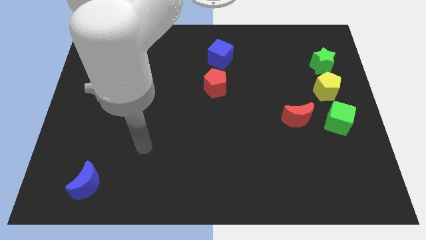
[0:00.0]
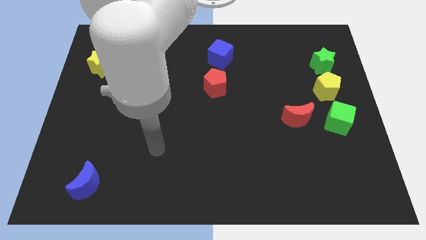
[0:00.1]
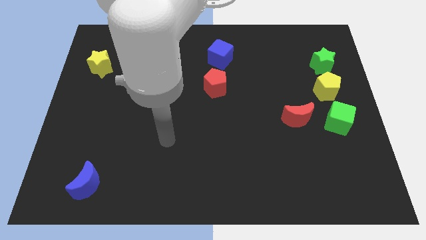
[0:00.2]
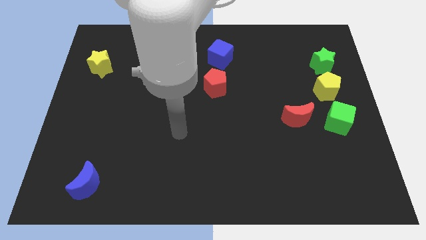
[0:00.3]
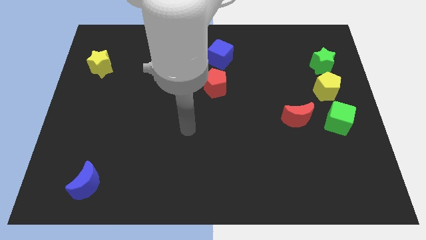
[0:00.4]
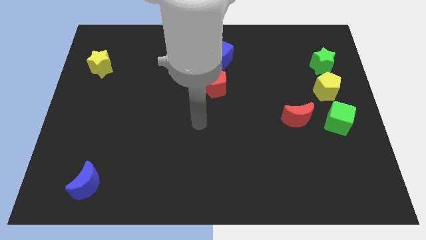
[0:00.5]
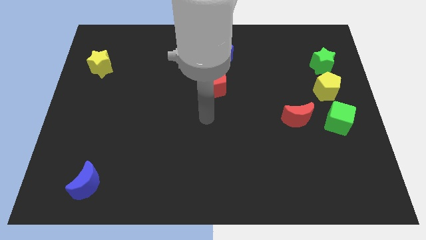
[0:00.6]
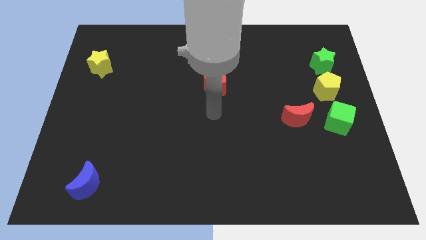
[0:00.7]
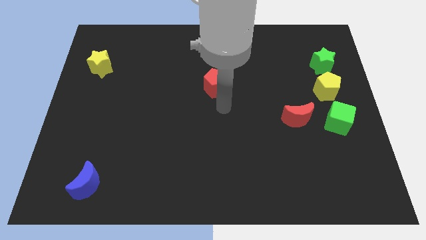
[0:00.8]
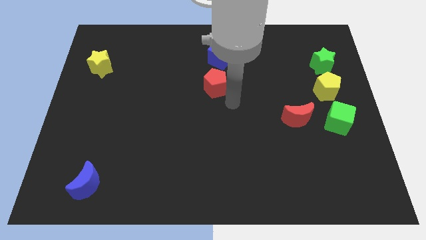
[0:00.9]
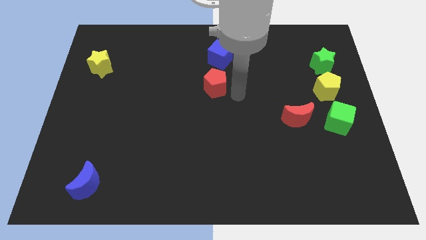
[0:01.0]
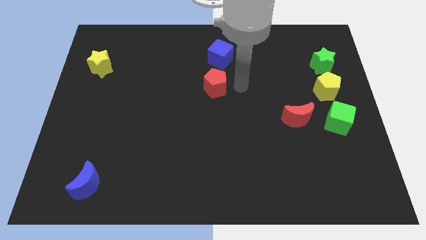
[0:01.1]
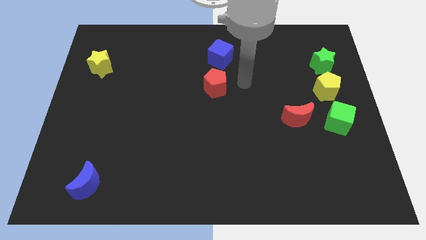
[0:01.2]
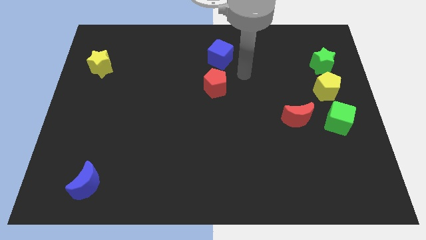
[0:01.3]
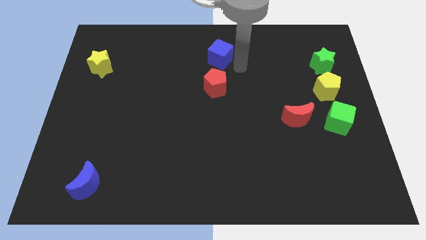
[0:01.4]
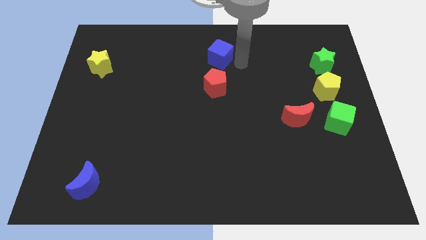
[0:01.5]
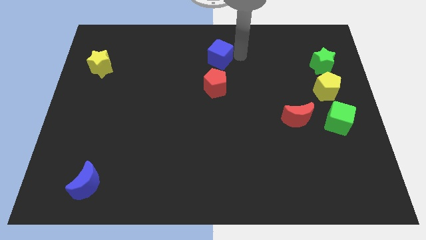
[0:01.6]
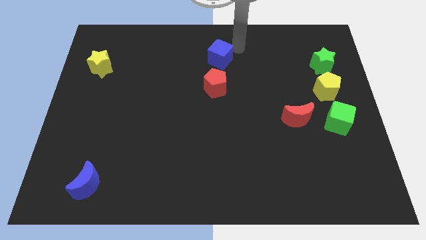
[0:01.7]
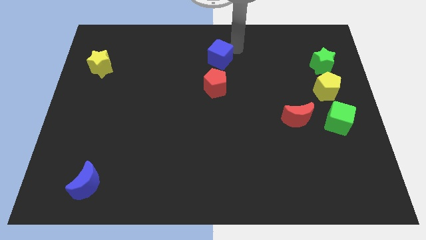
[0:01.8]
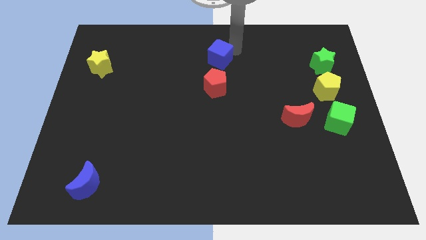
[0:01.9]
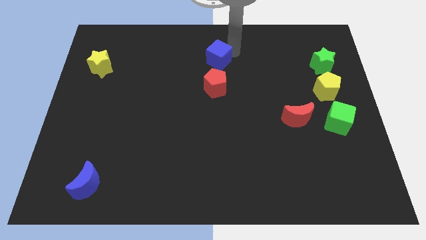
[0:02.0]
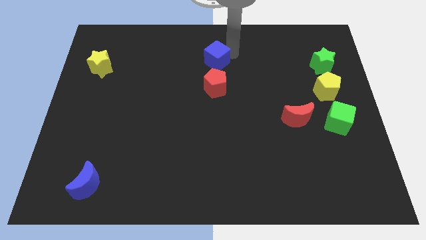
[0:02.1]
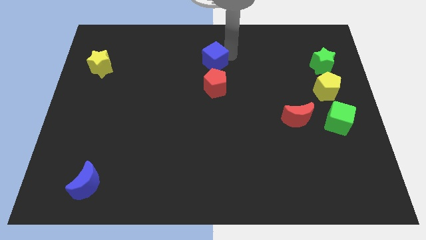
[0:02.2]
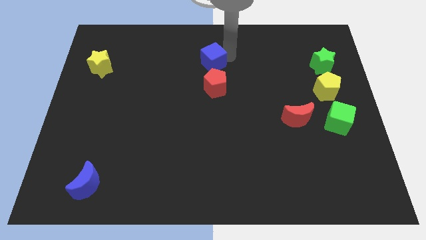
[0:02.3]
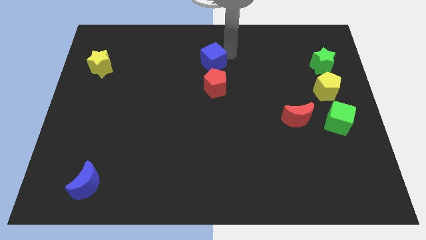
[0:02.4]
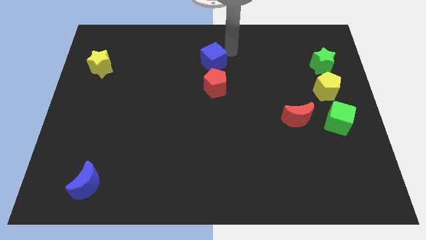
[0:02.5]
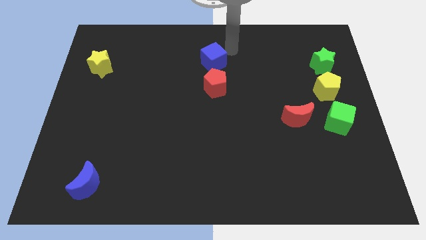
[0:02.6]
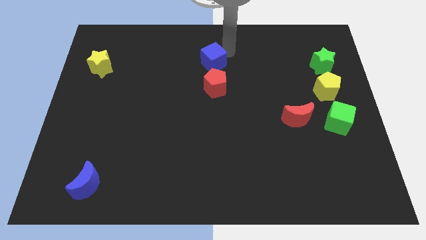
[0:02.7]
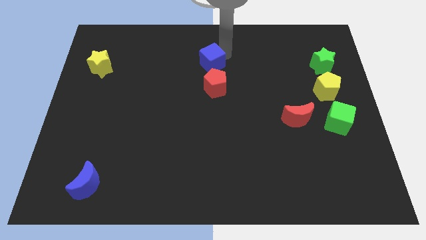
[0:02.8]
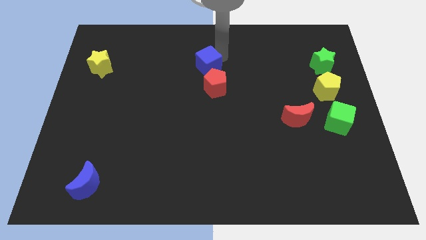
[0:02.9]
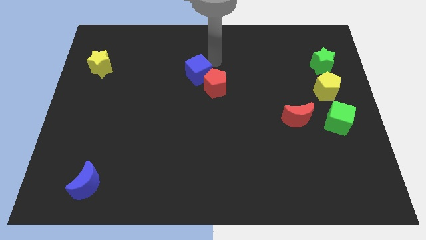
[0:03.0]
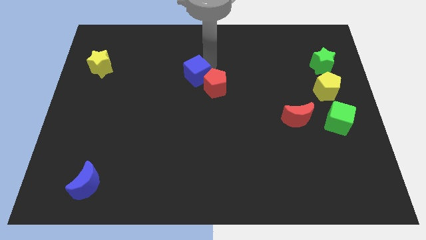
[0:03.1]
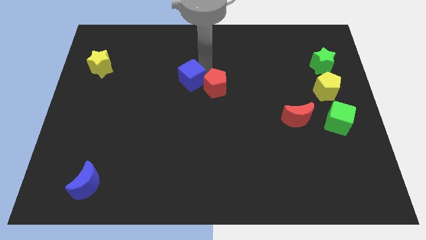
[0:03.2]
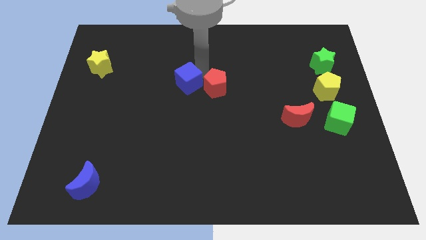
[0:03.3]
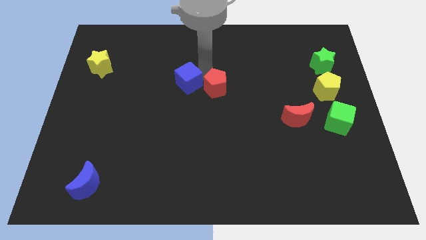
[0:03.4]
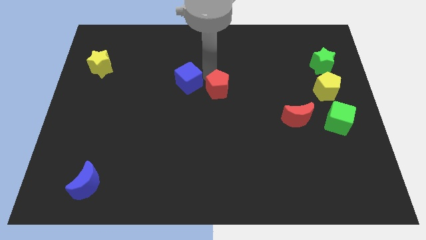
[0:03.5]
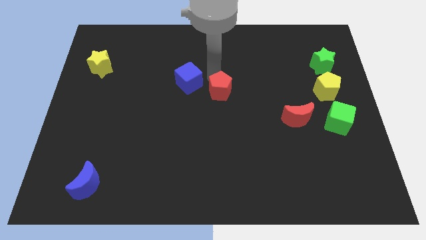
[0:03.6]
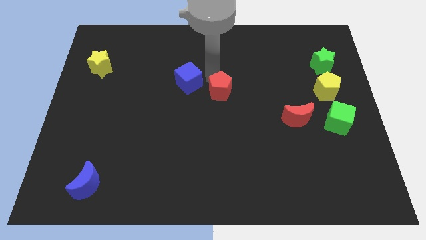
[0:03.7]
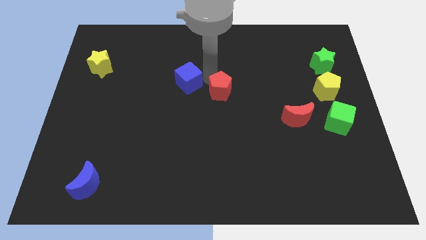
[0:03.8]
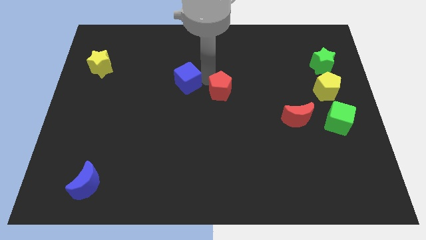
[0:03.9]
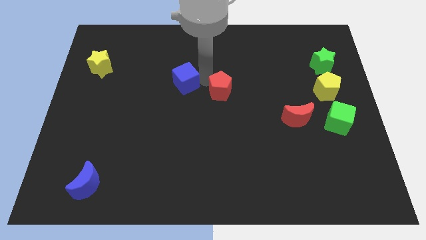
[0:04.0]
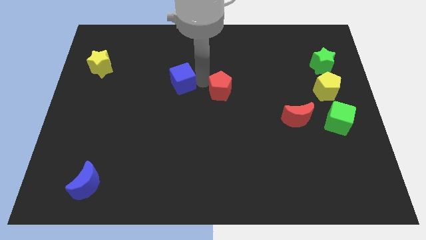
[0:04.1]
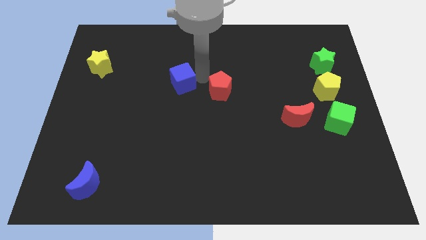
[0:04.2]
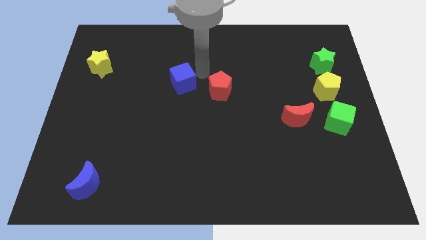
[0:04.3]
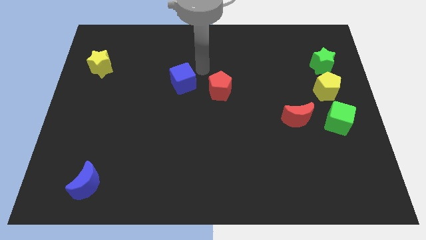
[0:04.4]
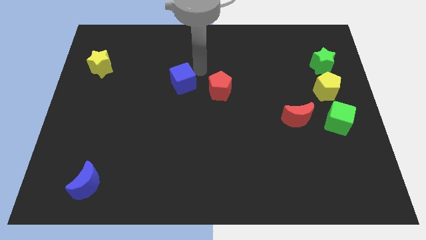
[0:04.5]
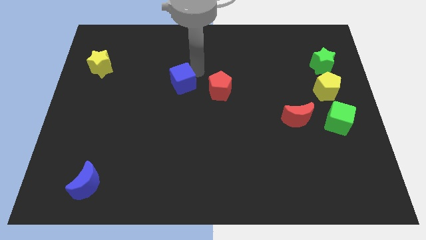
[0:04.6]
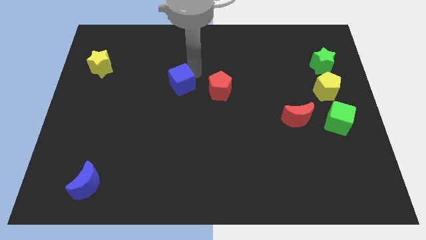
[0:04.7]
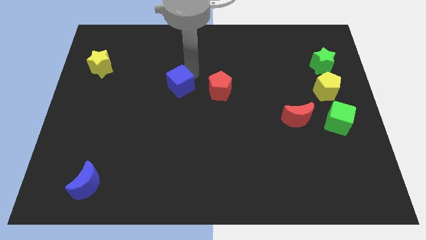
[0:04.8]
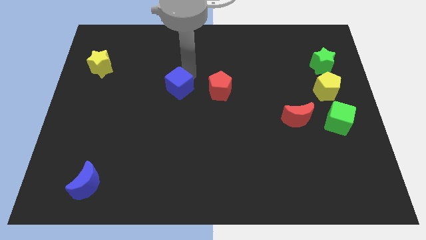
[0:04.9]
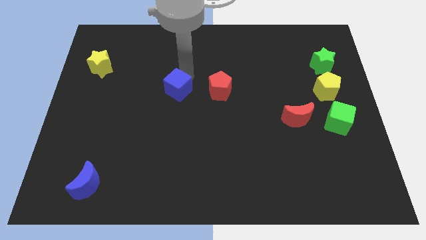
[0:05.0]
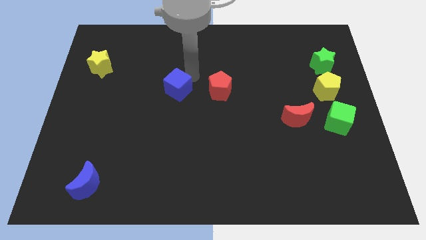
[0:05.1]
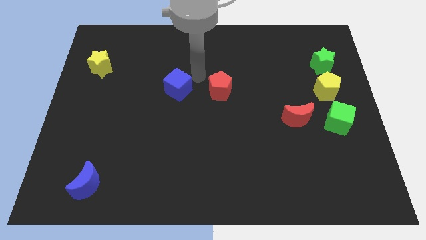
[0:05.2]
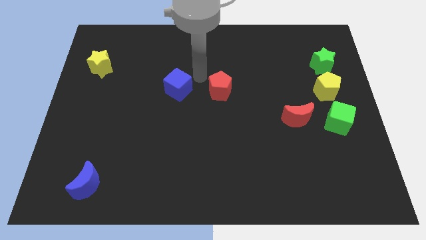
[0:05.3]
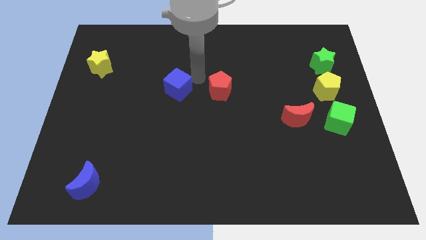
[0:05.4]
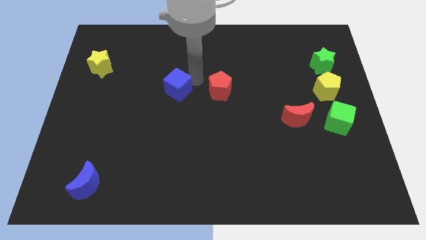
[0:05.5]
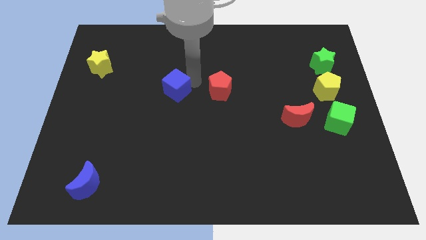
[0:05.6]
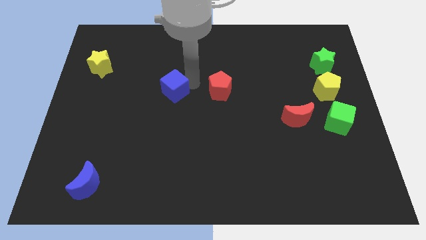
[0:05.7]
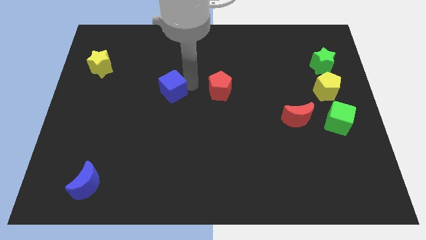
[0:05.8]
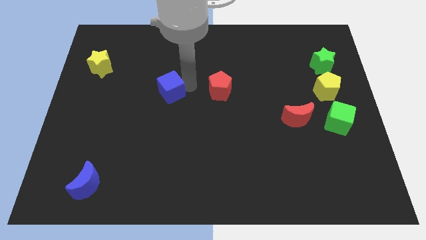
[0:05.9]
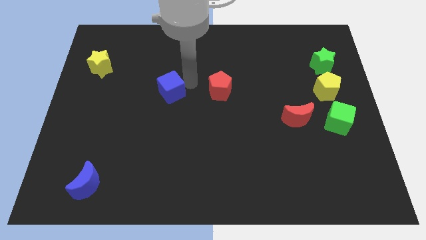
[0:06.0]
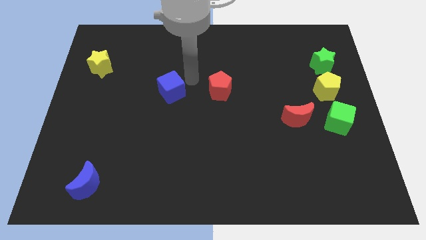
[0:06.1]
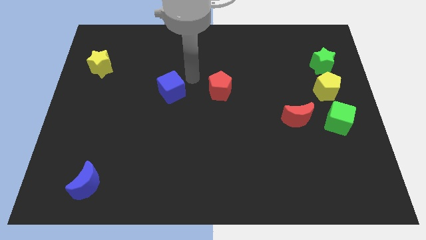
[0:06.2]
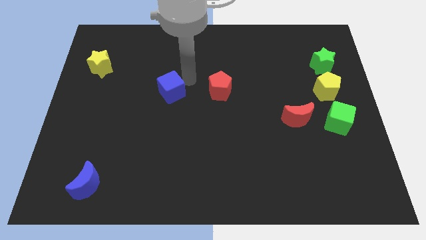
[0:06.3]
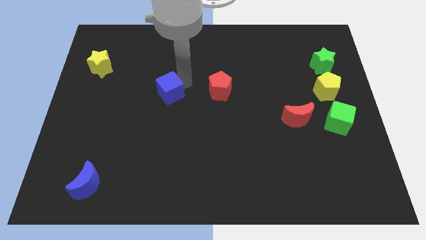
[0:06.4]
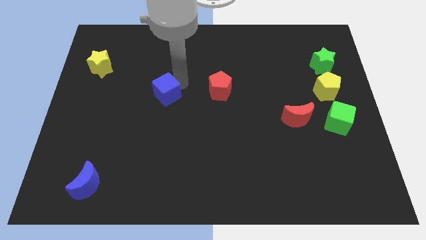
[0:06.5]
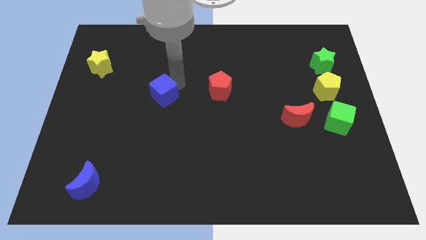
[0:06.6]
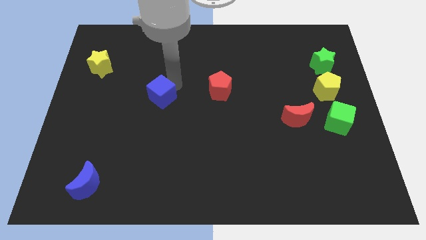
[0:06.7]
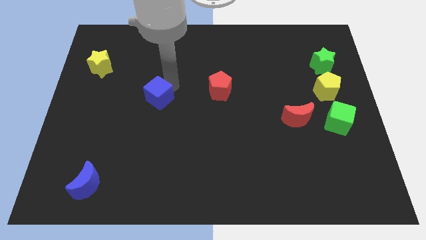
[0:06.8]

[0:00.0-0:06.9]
slide the blue cube diagonally downwards and to the left

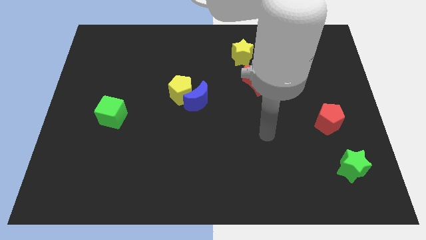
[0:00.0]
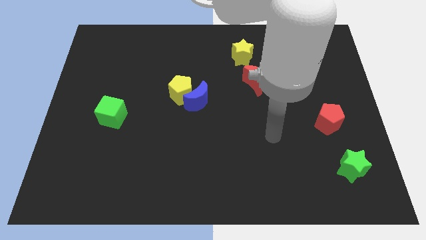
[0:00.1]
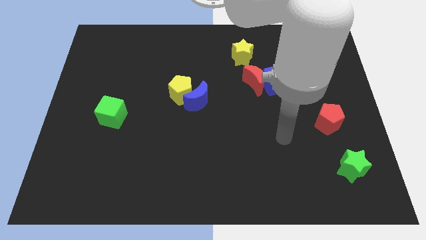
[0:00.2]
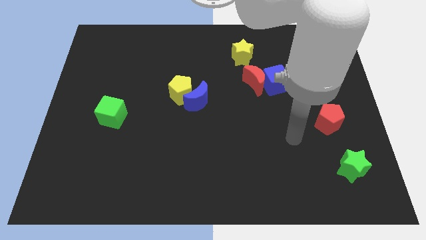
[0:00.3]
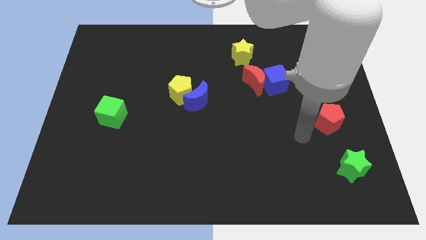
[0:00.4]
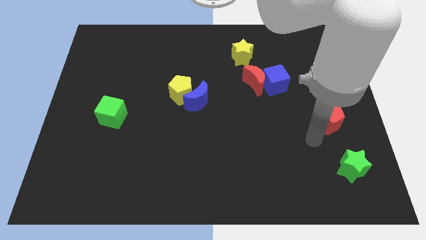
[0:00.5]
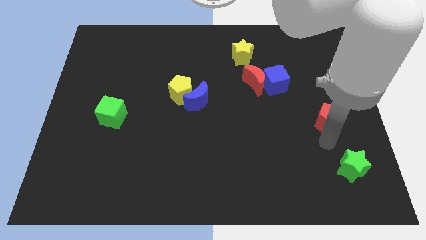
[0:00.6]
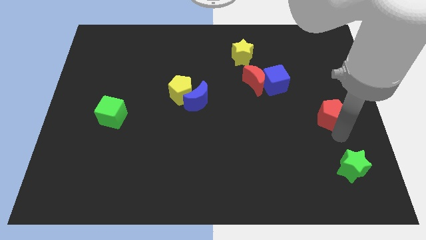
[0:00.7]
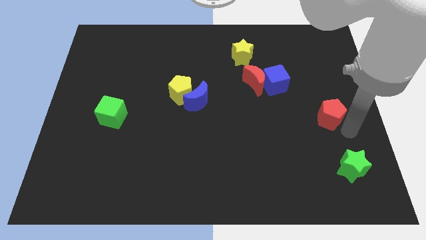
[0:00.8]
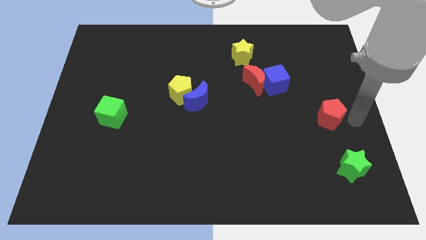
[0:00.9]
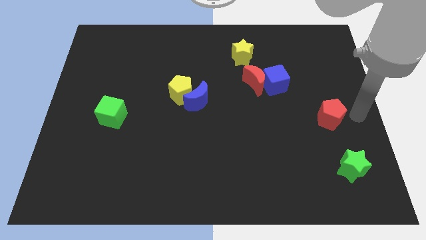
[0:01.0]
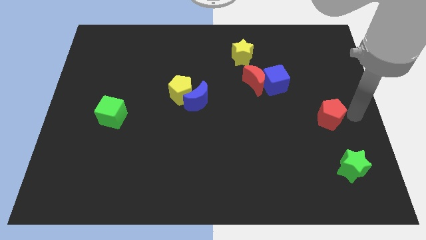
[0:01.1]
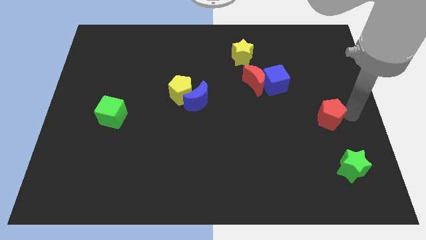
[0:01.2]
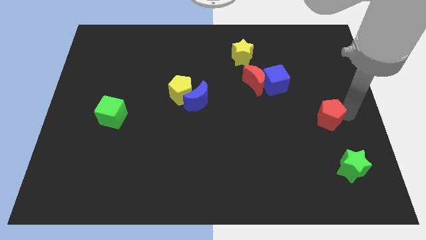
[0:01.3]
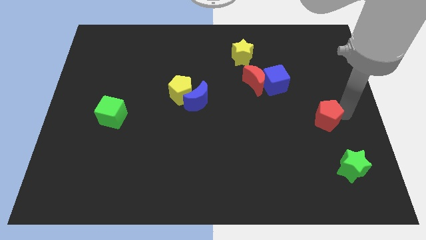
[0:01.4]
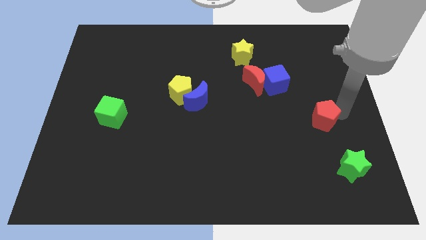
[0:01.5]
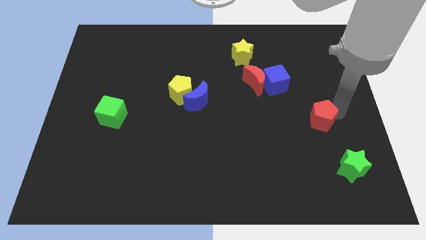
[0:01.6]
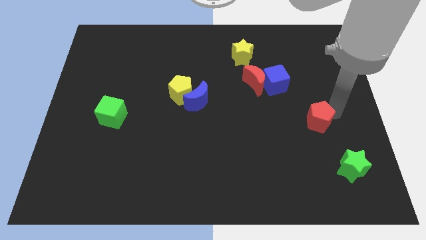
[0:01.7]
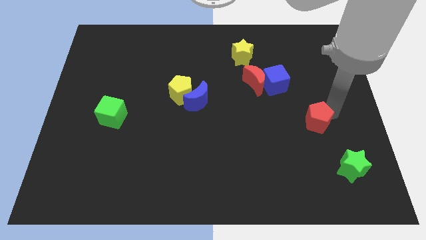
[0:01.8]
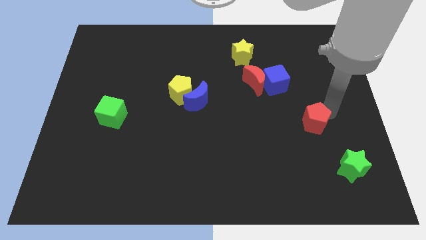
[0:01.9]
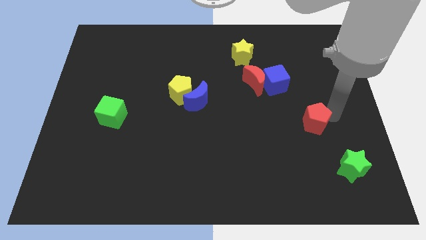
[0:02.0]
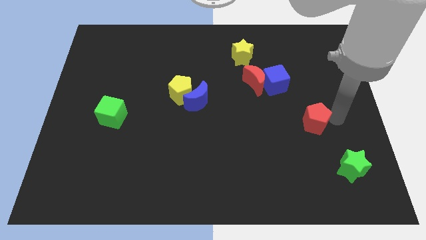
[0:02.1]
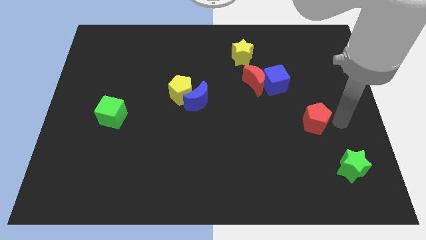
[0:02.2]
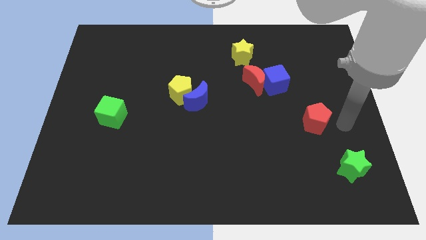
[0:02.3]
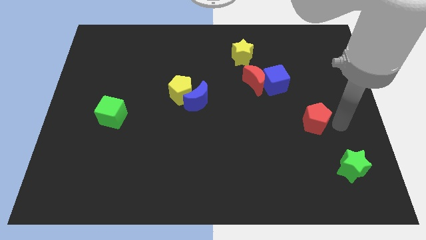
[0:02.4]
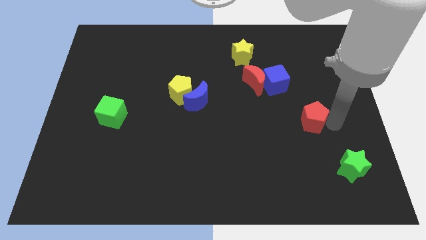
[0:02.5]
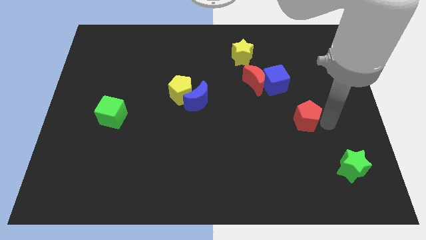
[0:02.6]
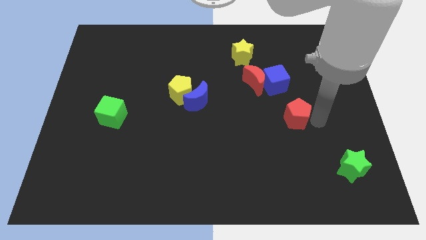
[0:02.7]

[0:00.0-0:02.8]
slightly slide the red pentagon left
